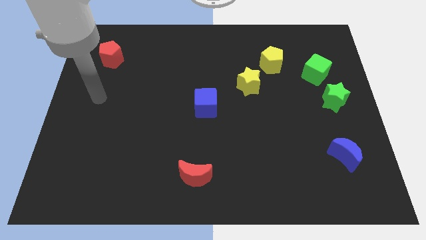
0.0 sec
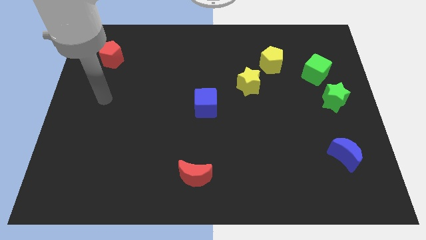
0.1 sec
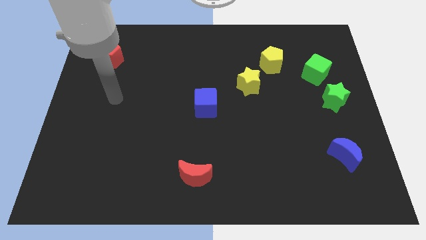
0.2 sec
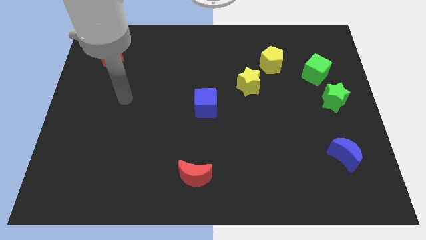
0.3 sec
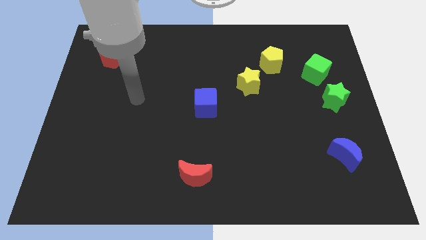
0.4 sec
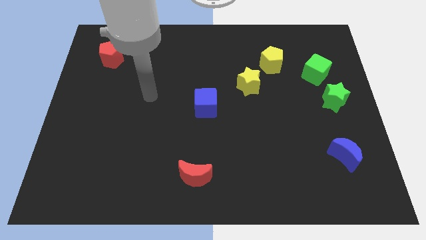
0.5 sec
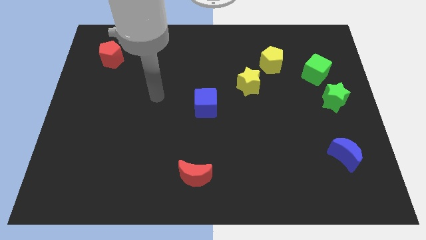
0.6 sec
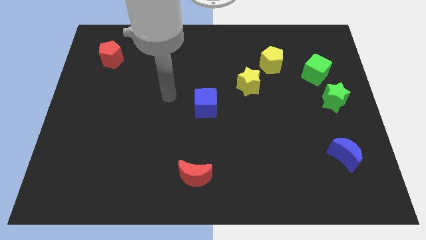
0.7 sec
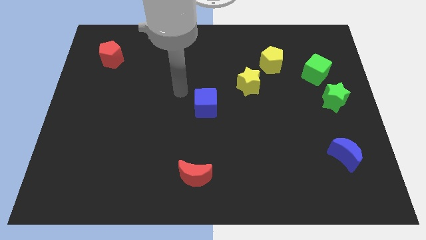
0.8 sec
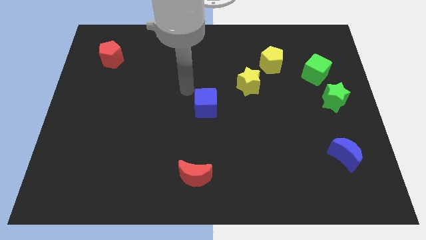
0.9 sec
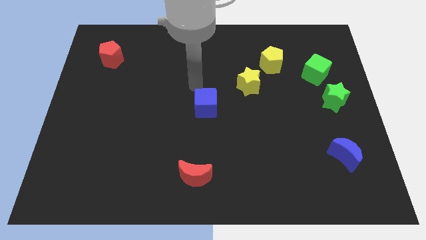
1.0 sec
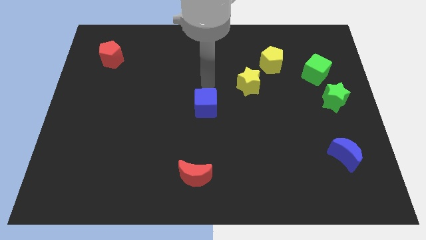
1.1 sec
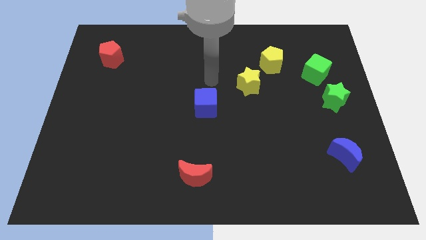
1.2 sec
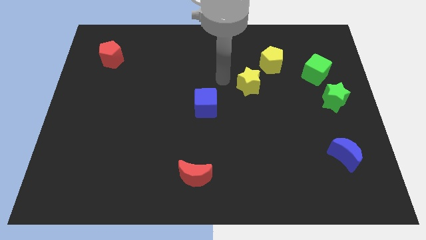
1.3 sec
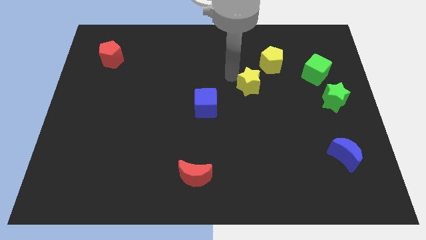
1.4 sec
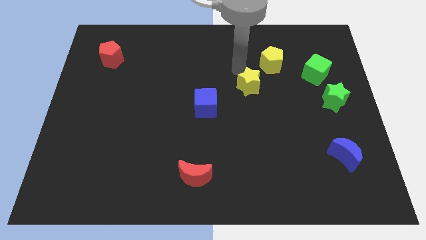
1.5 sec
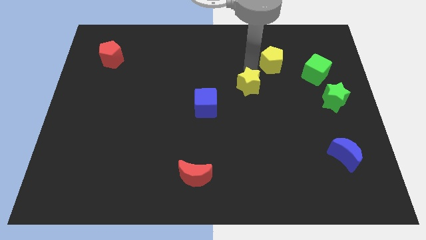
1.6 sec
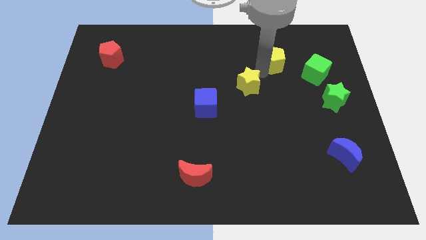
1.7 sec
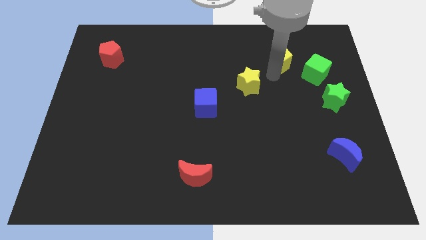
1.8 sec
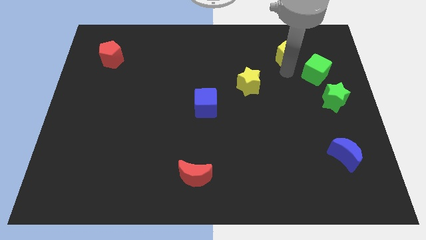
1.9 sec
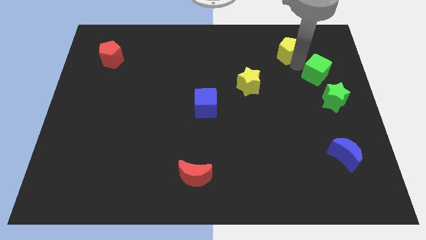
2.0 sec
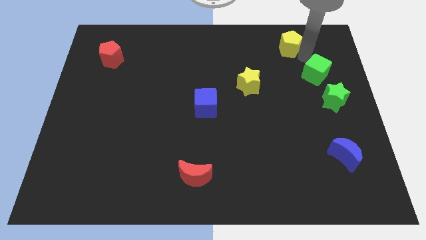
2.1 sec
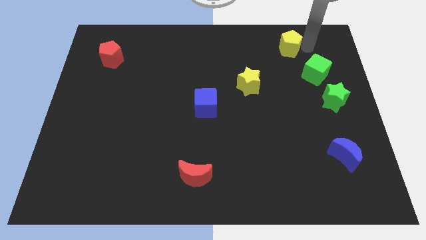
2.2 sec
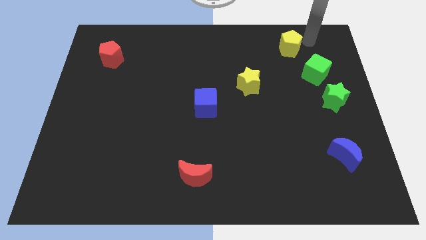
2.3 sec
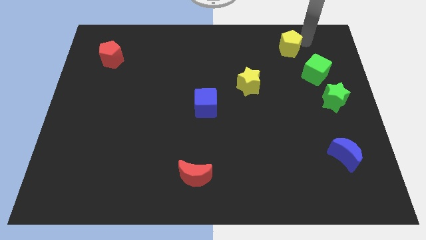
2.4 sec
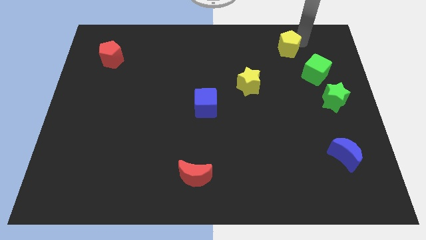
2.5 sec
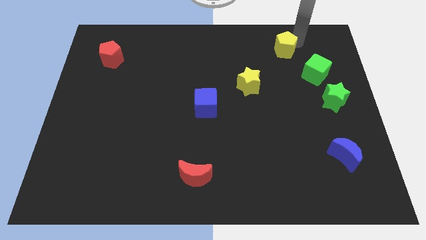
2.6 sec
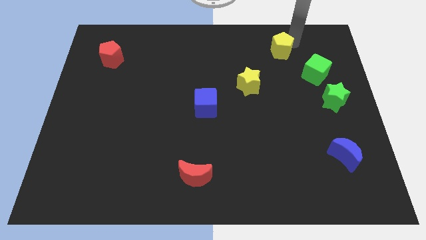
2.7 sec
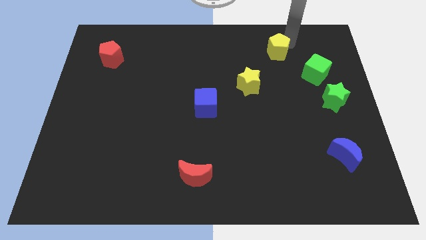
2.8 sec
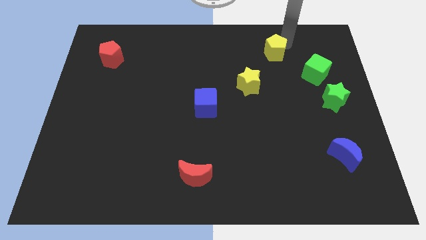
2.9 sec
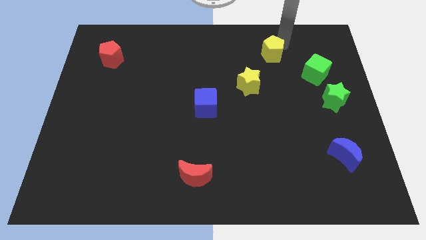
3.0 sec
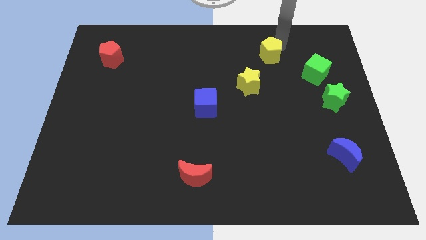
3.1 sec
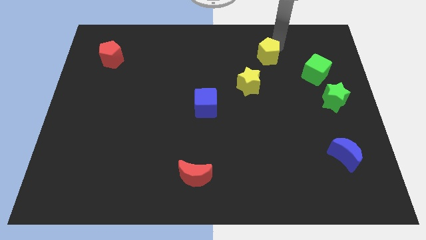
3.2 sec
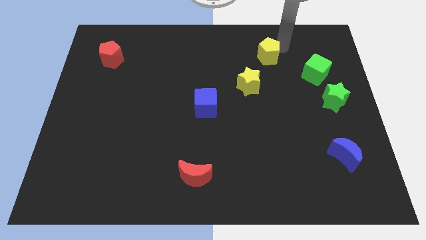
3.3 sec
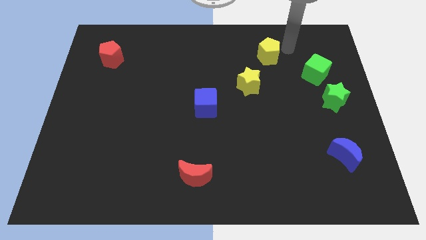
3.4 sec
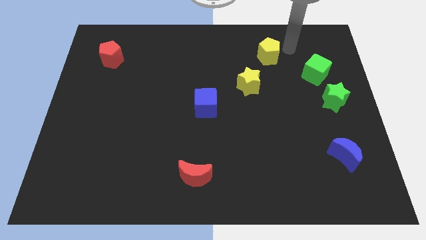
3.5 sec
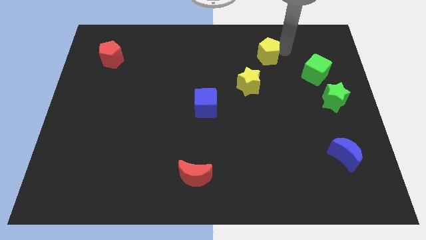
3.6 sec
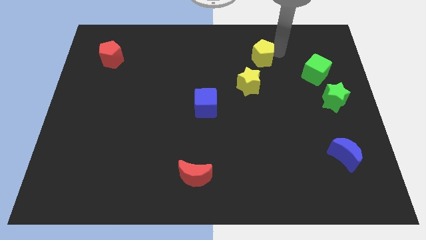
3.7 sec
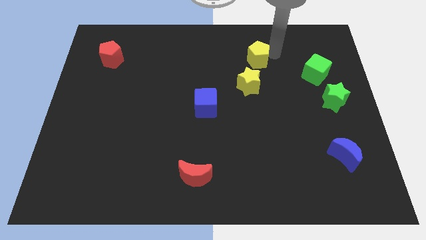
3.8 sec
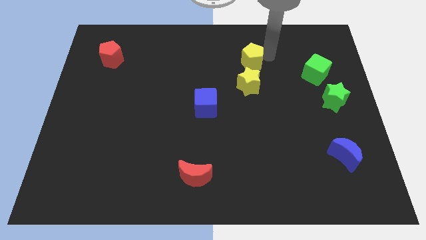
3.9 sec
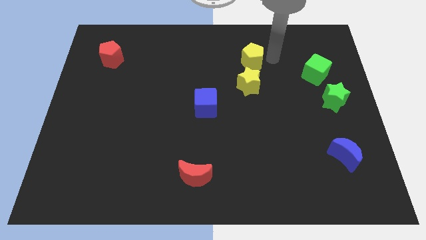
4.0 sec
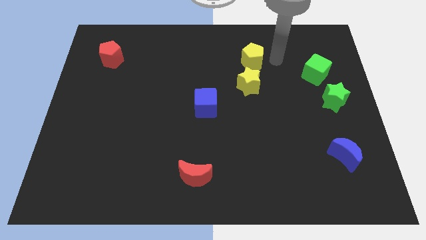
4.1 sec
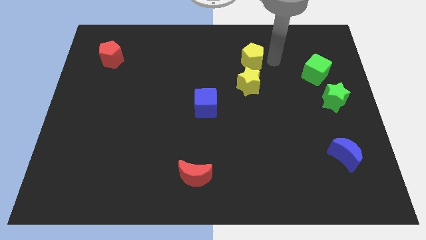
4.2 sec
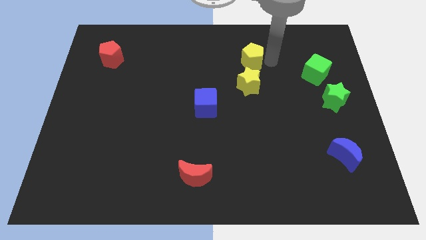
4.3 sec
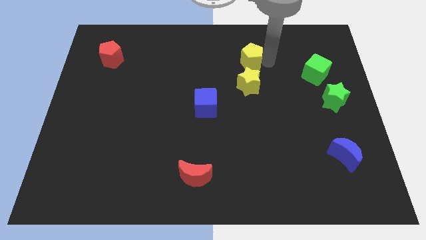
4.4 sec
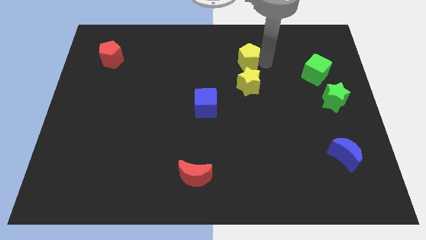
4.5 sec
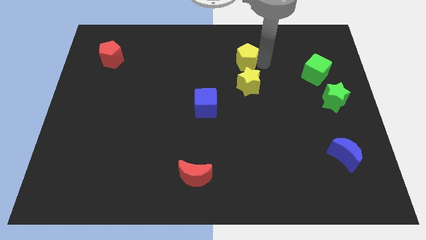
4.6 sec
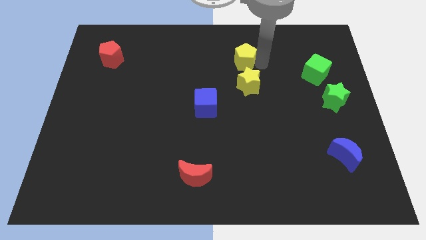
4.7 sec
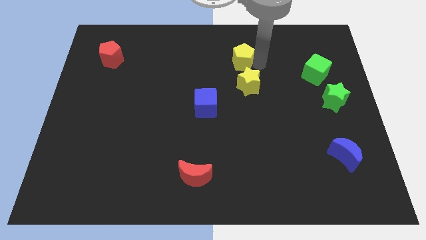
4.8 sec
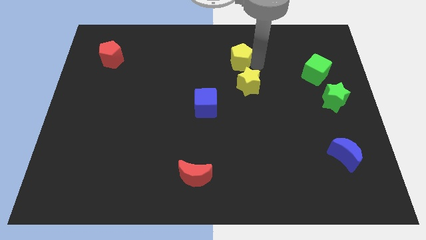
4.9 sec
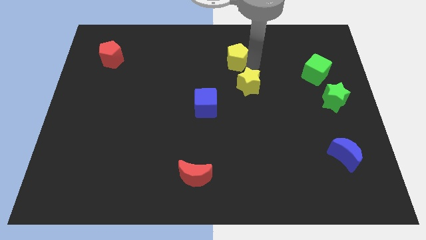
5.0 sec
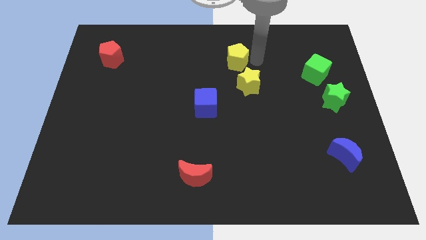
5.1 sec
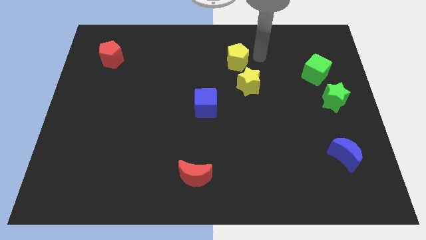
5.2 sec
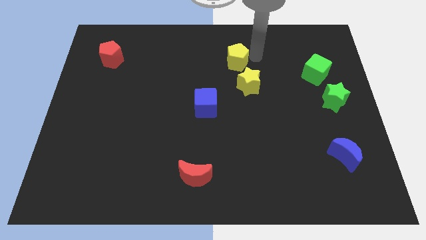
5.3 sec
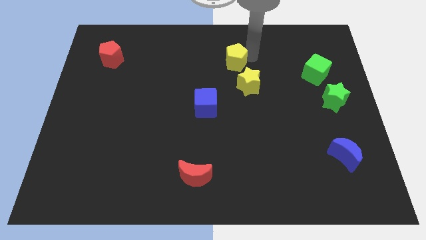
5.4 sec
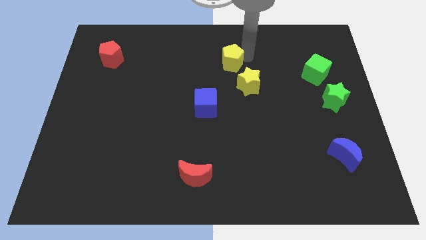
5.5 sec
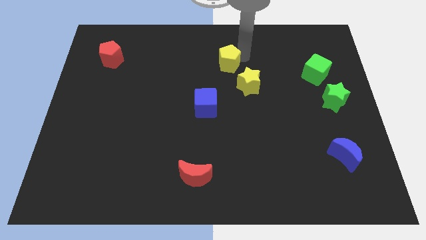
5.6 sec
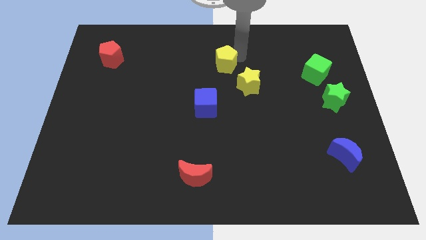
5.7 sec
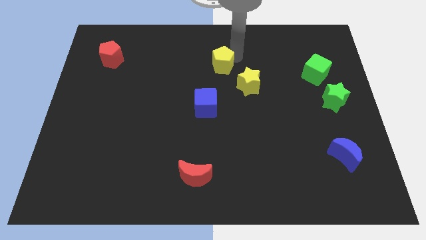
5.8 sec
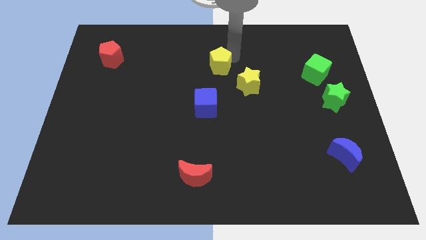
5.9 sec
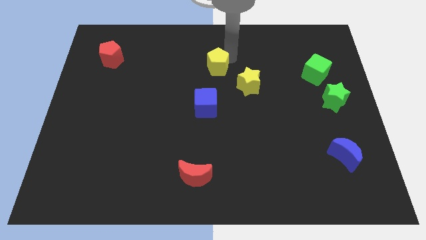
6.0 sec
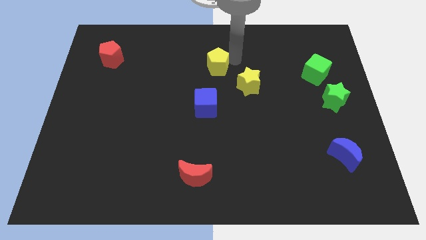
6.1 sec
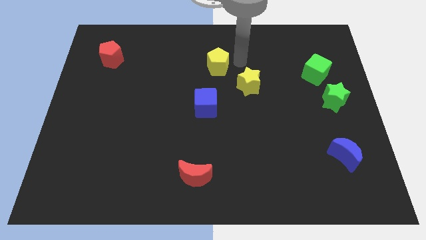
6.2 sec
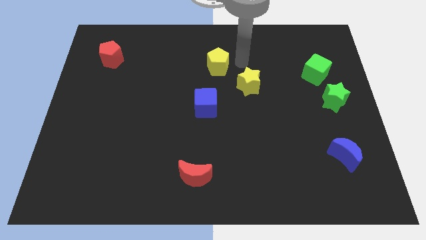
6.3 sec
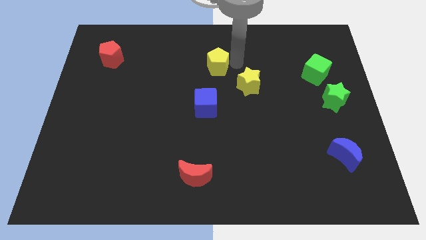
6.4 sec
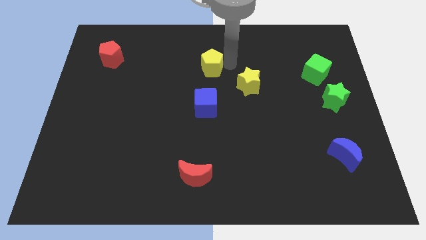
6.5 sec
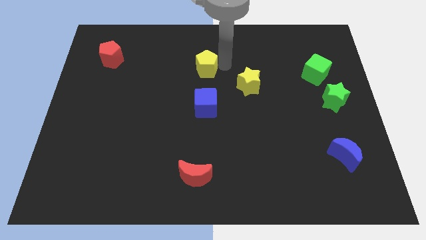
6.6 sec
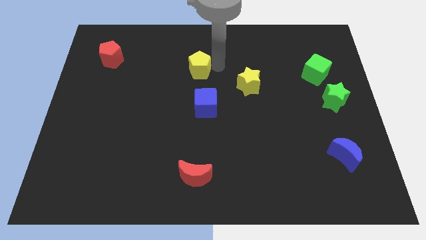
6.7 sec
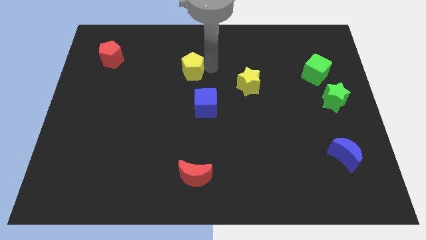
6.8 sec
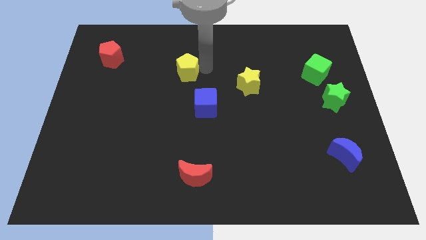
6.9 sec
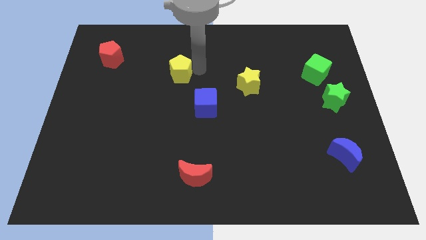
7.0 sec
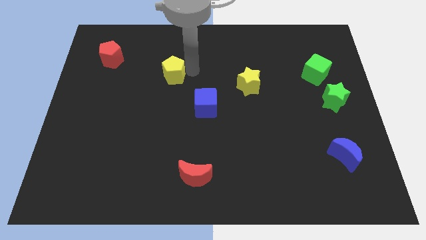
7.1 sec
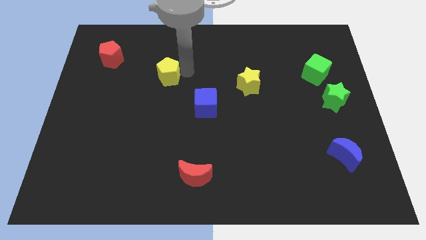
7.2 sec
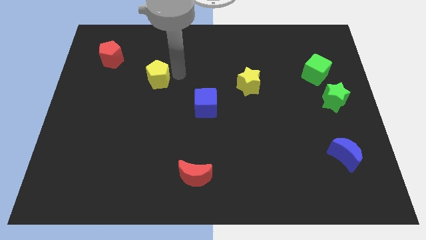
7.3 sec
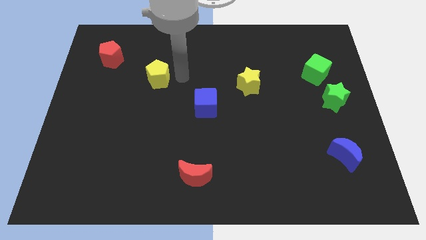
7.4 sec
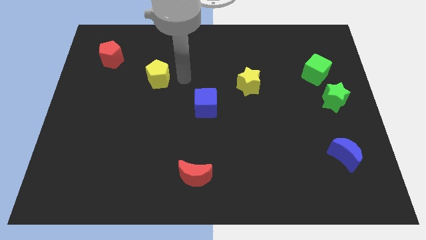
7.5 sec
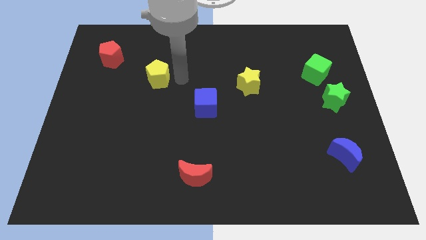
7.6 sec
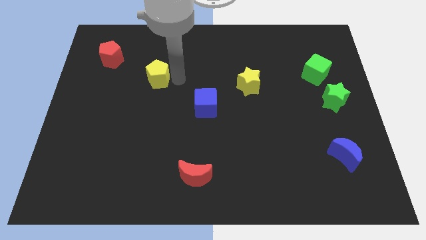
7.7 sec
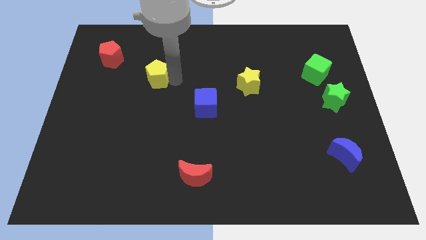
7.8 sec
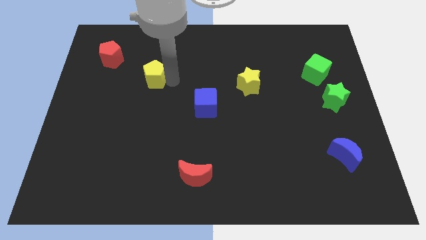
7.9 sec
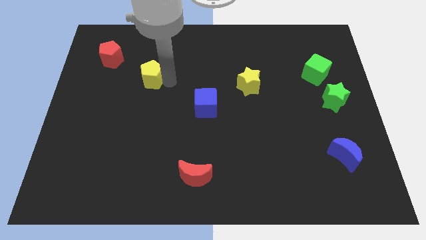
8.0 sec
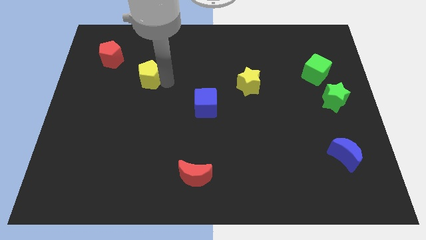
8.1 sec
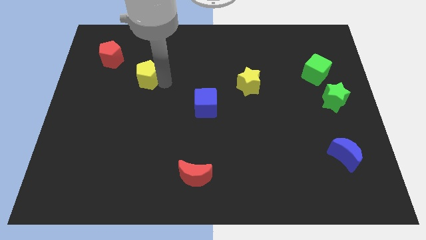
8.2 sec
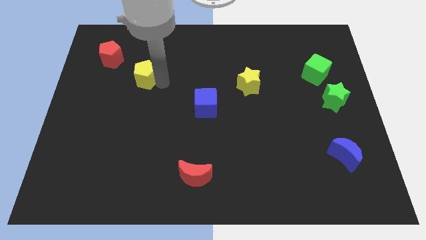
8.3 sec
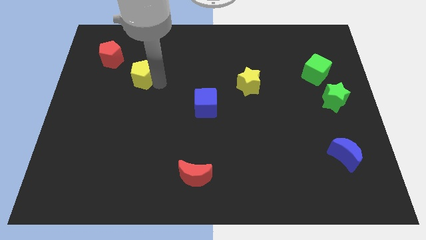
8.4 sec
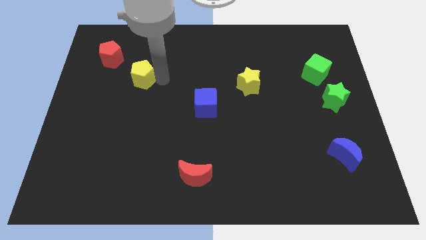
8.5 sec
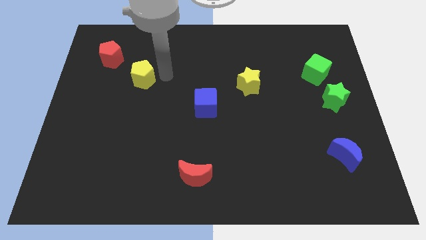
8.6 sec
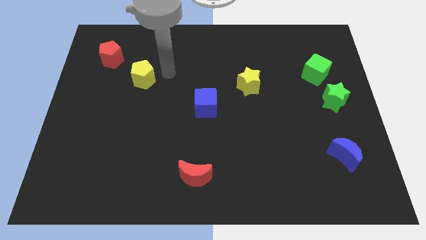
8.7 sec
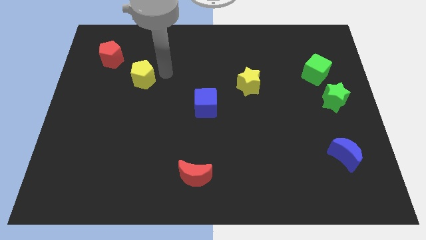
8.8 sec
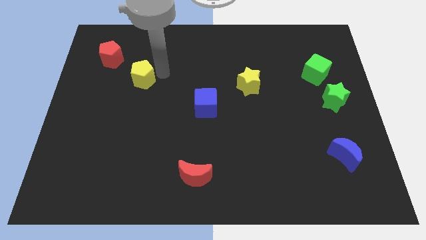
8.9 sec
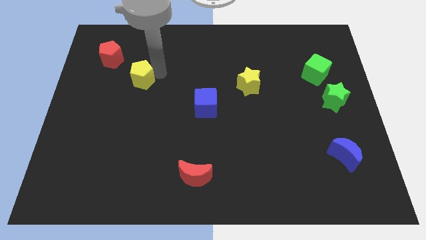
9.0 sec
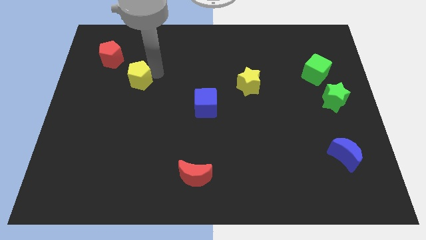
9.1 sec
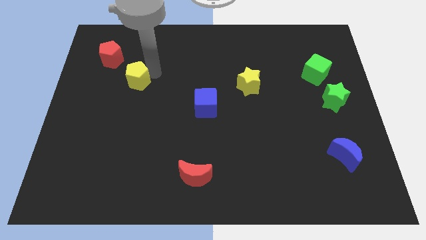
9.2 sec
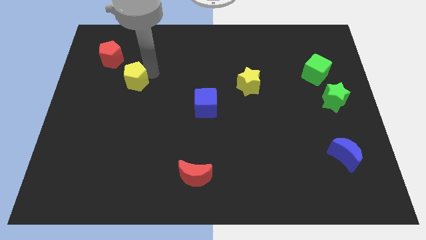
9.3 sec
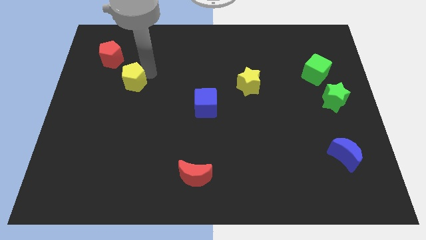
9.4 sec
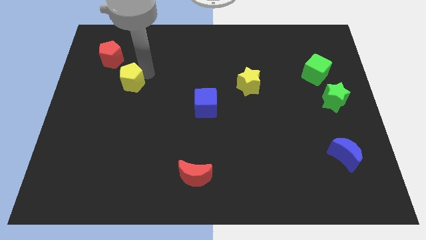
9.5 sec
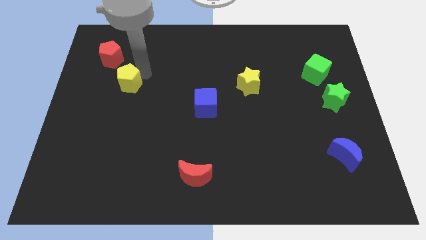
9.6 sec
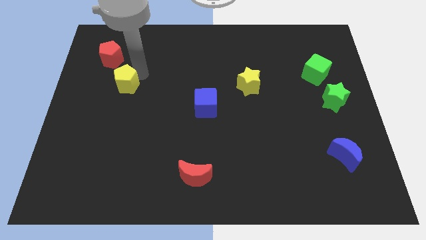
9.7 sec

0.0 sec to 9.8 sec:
put the yellow pentagon to the bottom side of the red pentagon
